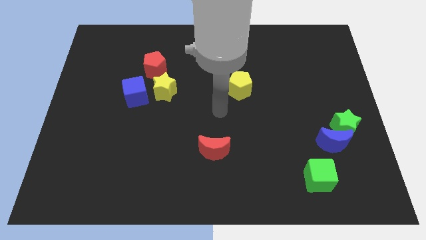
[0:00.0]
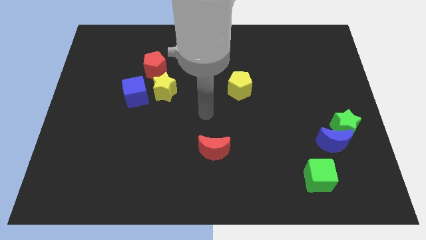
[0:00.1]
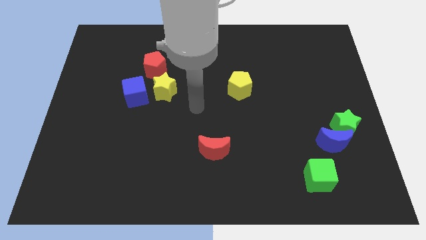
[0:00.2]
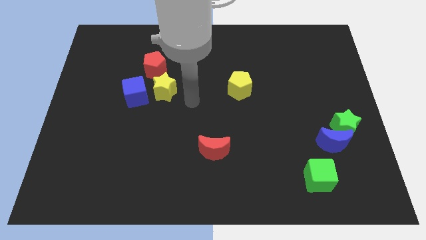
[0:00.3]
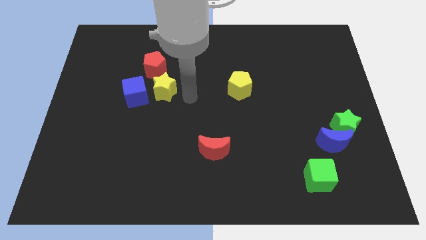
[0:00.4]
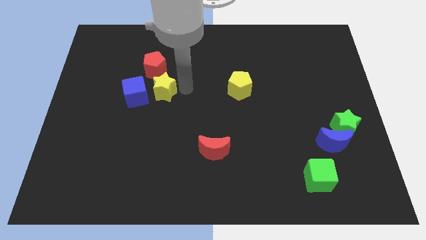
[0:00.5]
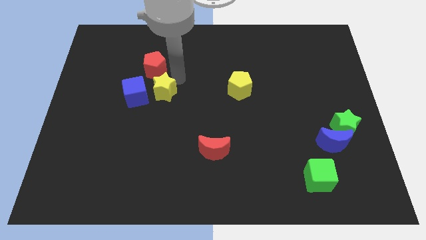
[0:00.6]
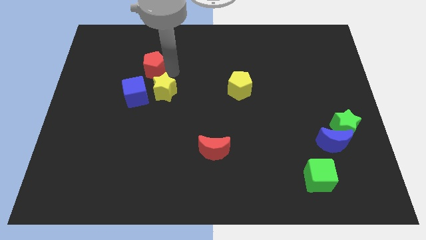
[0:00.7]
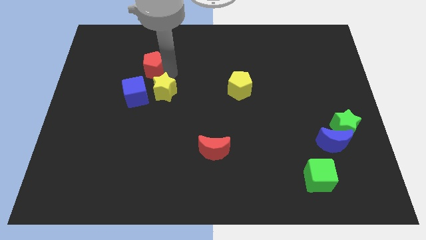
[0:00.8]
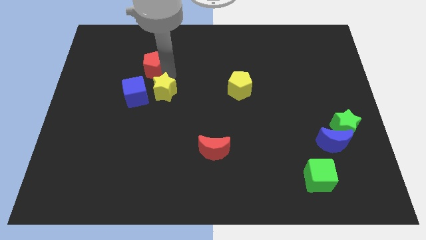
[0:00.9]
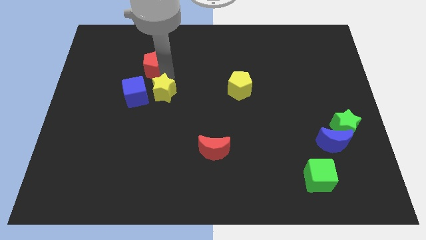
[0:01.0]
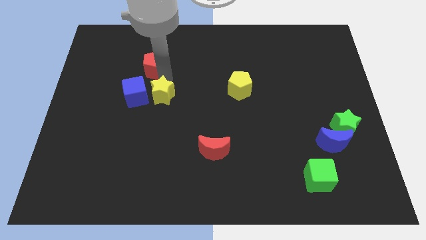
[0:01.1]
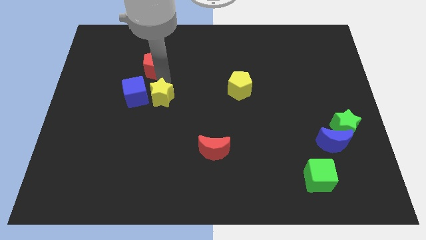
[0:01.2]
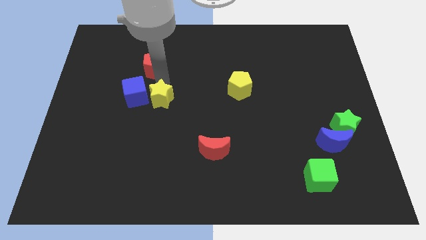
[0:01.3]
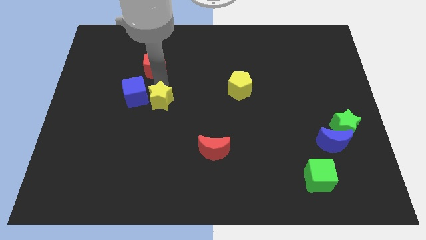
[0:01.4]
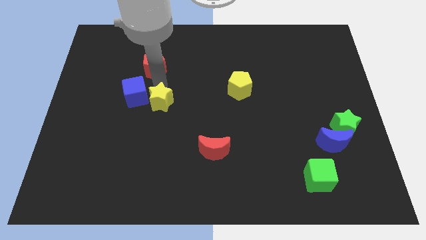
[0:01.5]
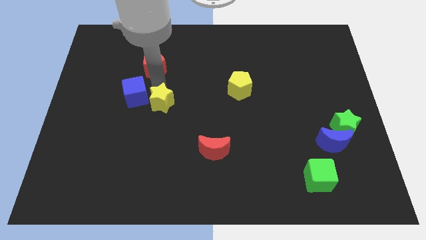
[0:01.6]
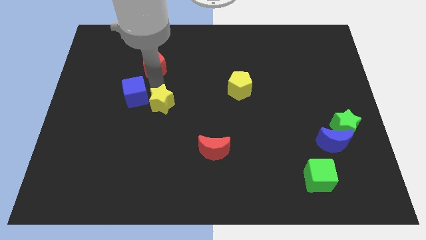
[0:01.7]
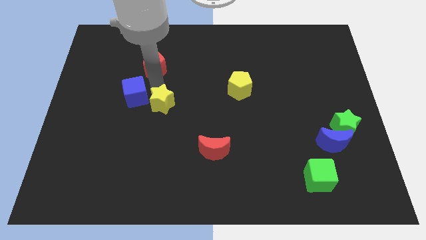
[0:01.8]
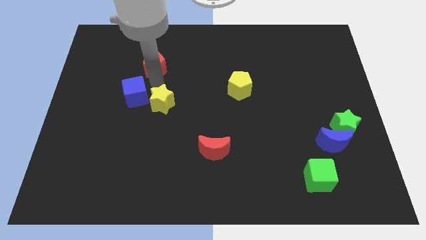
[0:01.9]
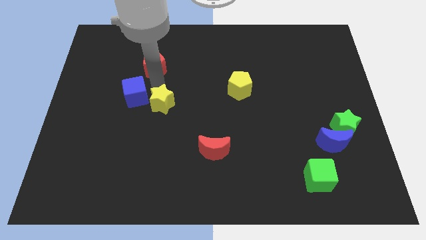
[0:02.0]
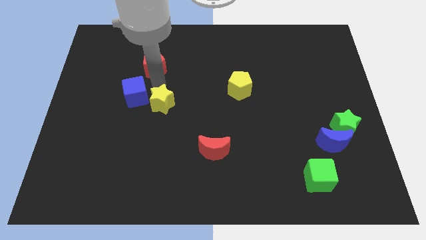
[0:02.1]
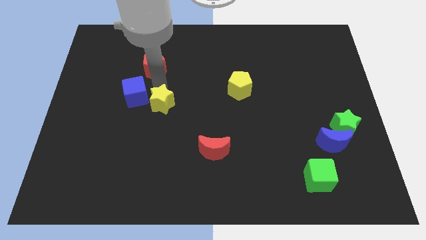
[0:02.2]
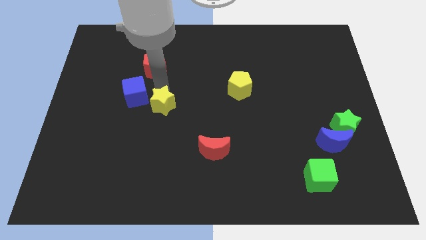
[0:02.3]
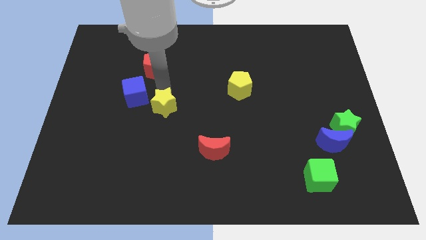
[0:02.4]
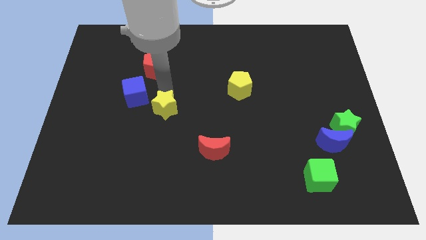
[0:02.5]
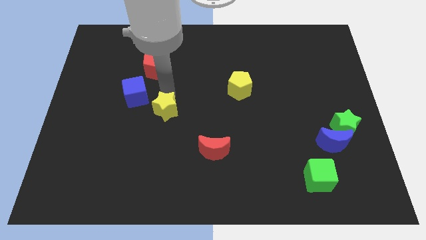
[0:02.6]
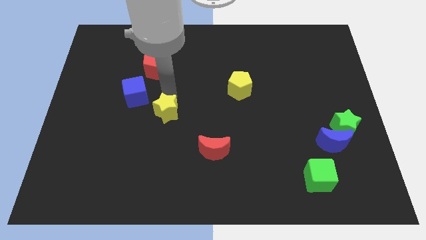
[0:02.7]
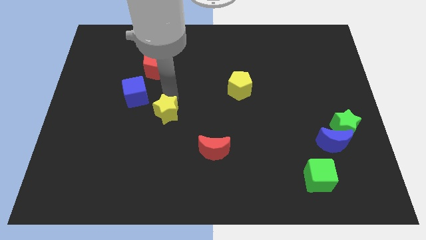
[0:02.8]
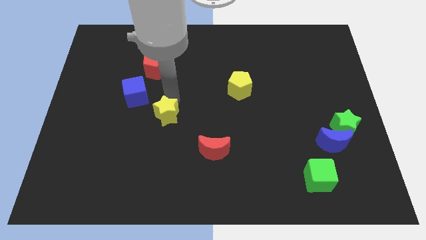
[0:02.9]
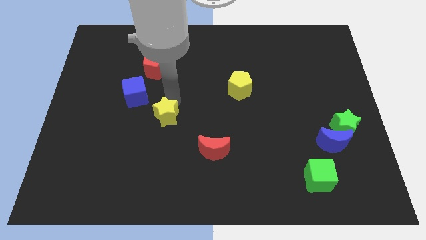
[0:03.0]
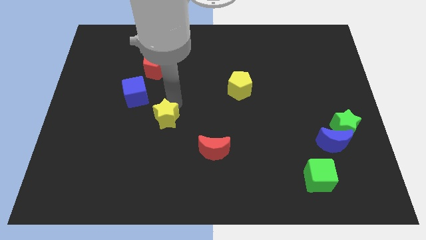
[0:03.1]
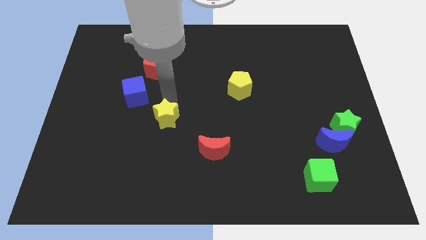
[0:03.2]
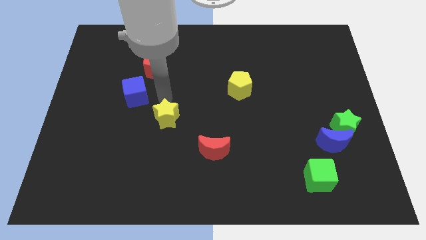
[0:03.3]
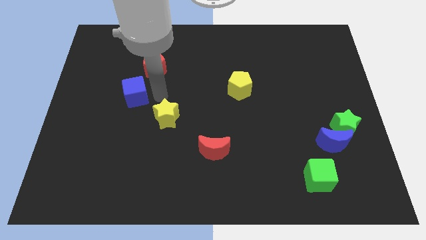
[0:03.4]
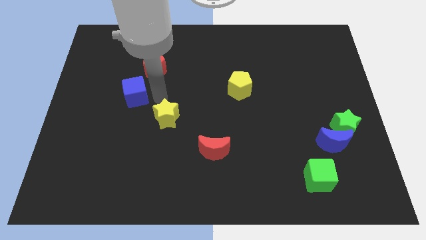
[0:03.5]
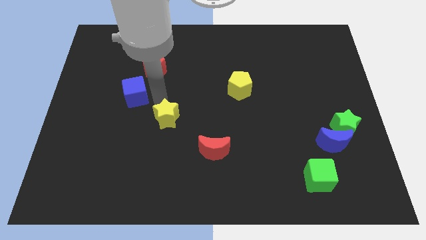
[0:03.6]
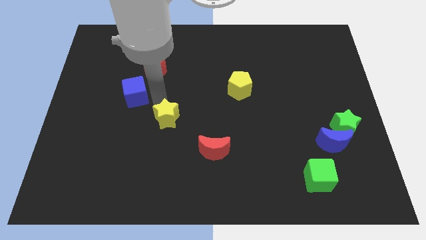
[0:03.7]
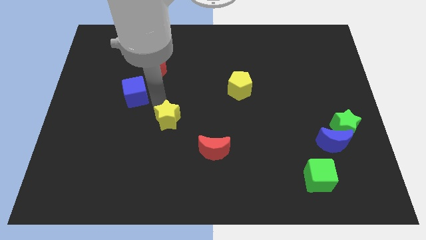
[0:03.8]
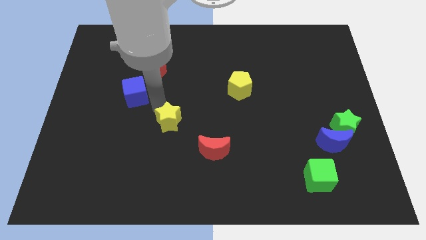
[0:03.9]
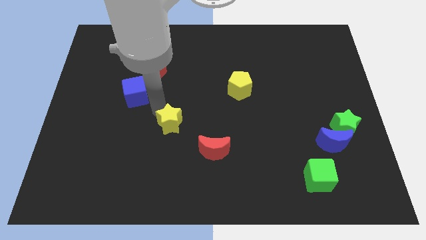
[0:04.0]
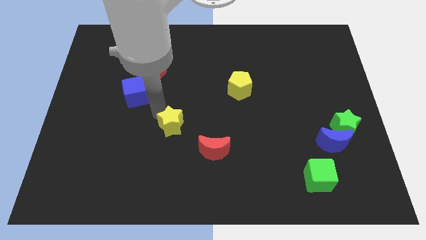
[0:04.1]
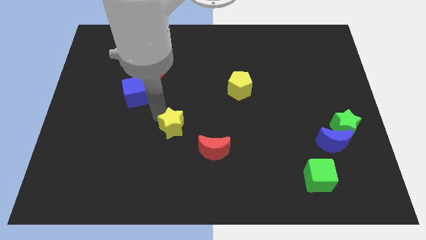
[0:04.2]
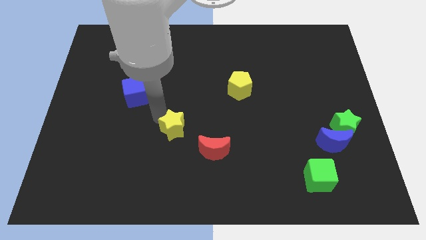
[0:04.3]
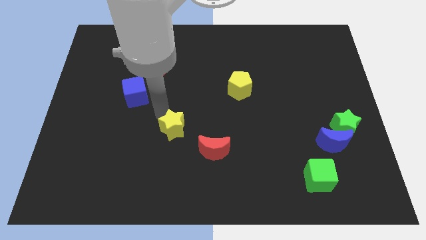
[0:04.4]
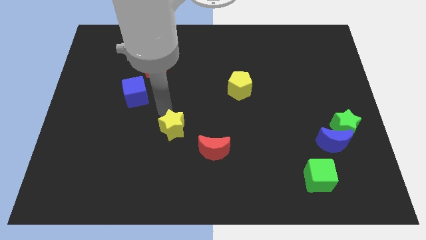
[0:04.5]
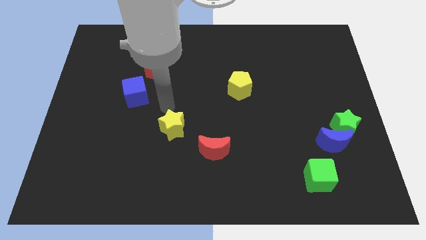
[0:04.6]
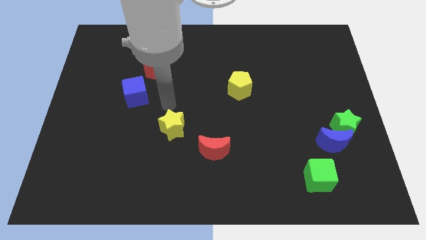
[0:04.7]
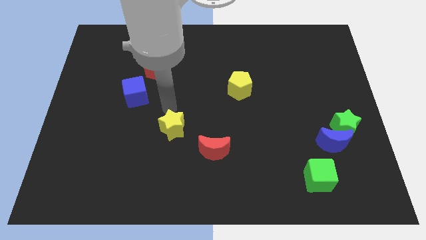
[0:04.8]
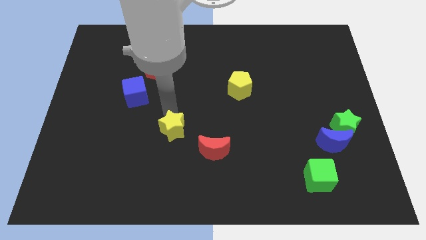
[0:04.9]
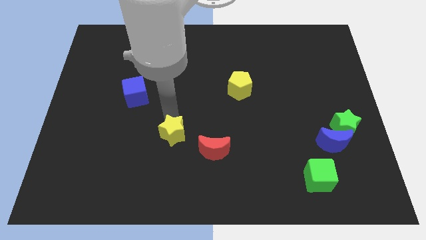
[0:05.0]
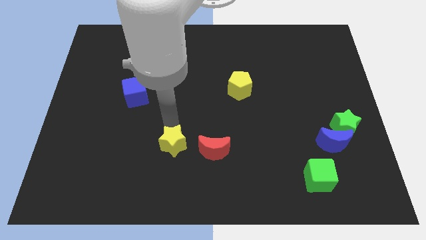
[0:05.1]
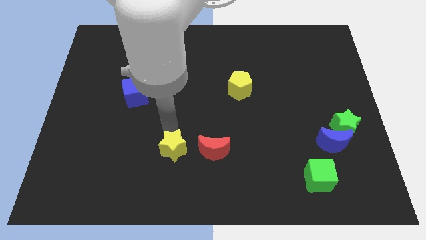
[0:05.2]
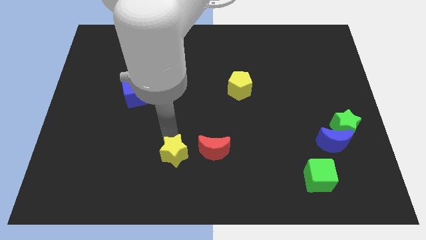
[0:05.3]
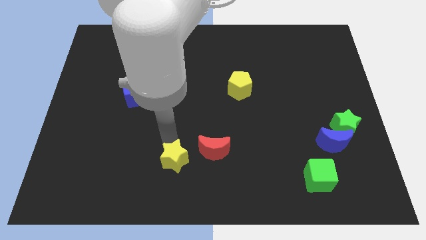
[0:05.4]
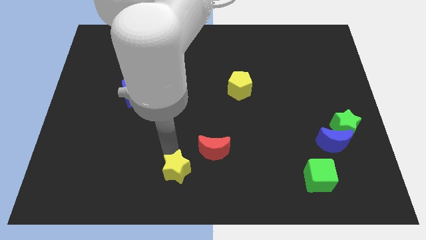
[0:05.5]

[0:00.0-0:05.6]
slide the yellow star to the bottom side

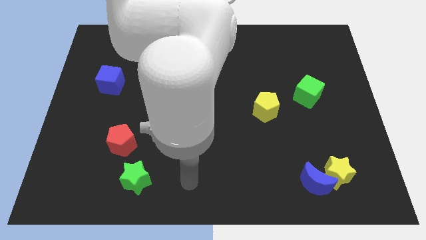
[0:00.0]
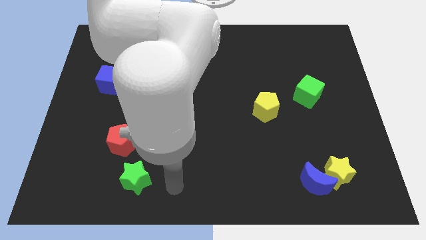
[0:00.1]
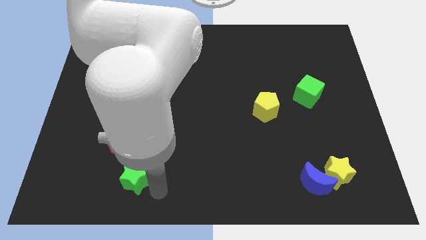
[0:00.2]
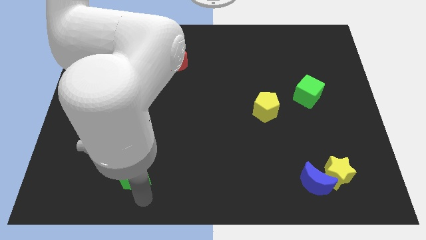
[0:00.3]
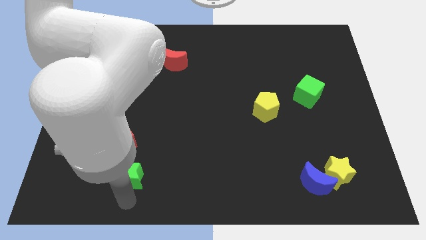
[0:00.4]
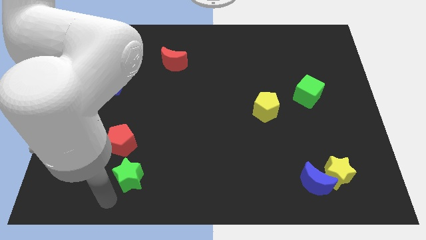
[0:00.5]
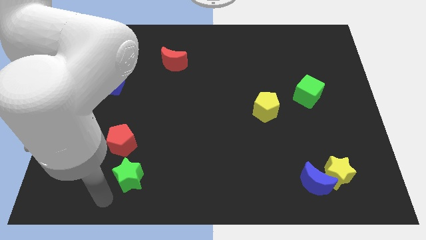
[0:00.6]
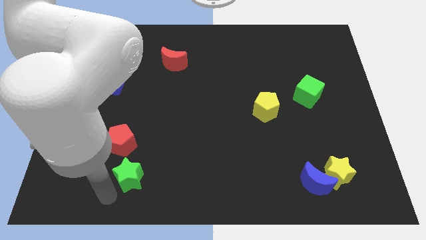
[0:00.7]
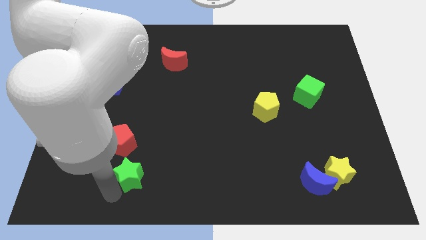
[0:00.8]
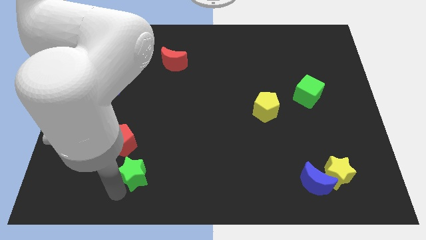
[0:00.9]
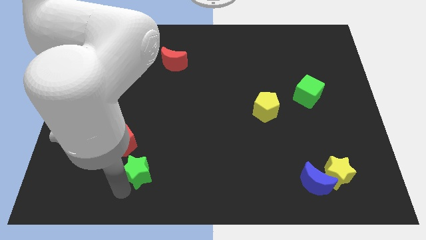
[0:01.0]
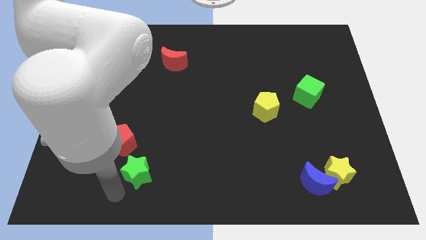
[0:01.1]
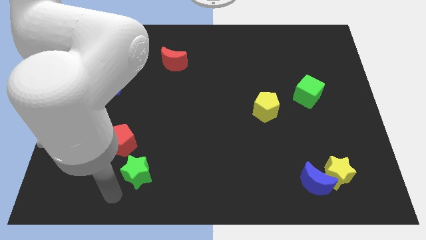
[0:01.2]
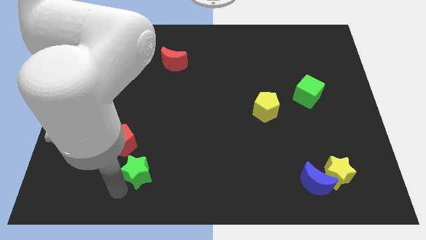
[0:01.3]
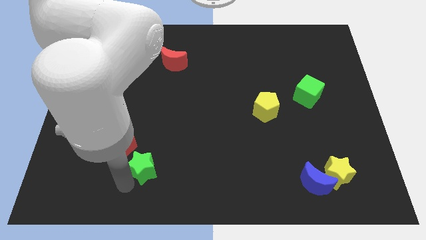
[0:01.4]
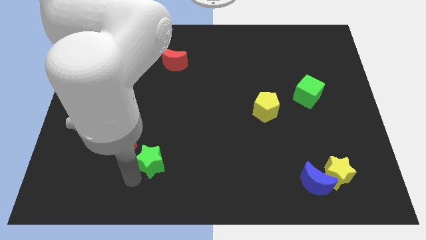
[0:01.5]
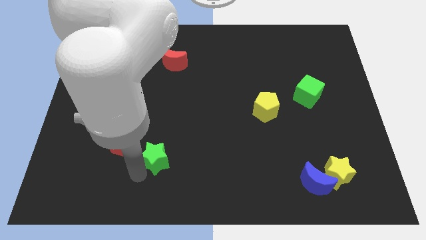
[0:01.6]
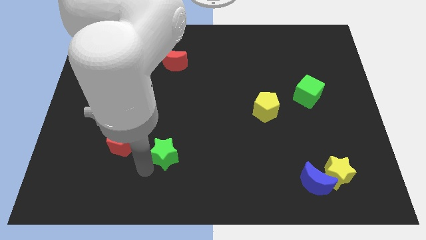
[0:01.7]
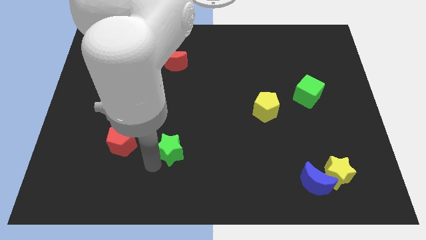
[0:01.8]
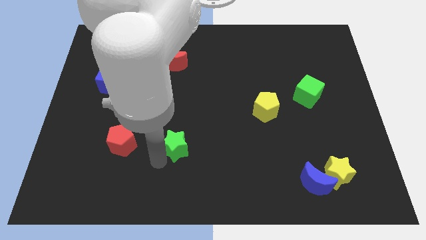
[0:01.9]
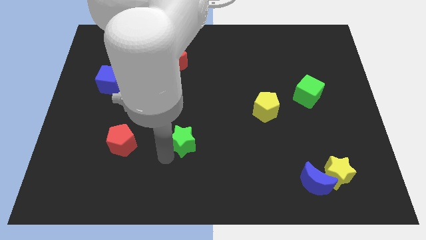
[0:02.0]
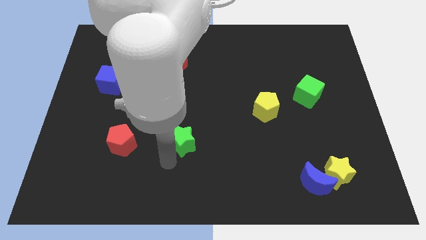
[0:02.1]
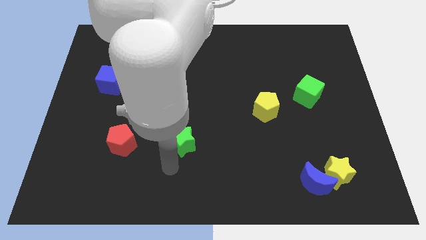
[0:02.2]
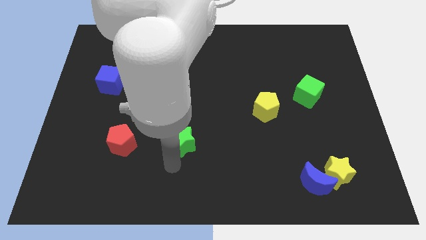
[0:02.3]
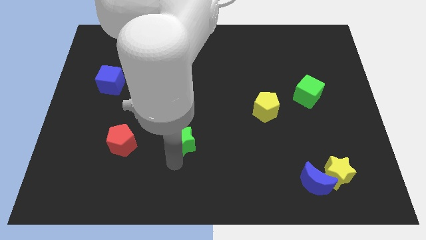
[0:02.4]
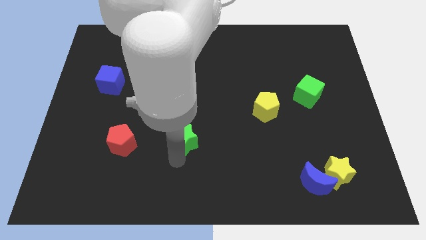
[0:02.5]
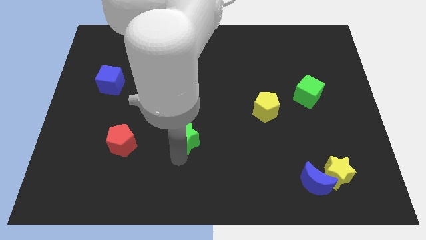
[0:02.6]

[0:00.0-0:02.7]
put the green star to the center
